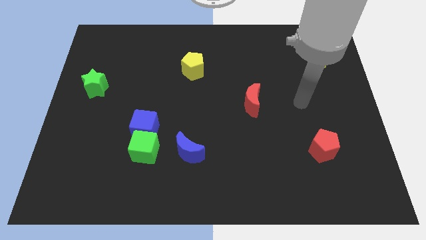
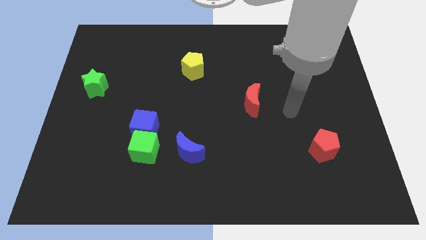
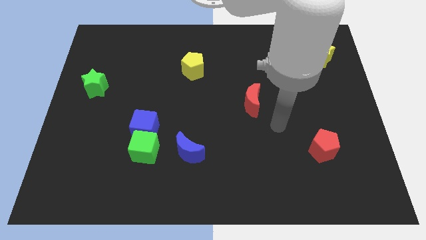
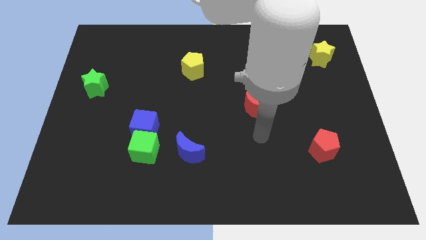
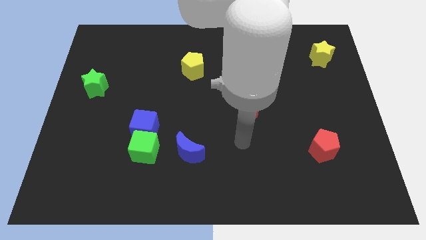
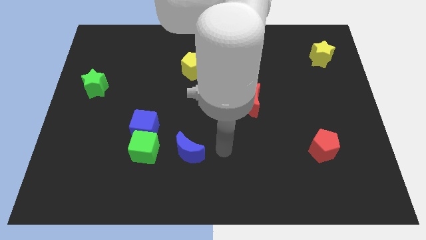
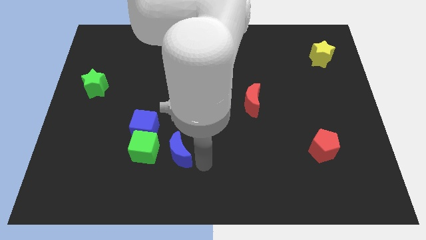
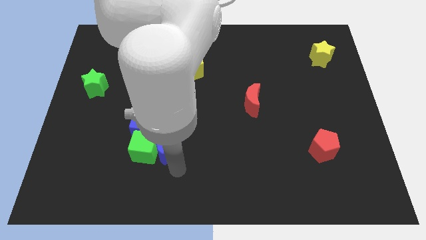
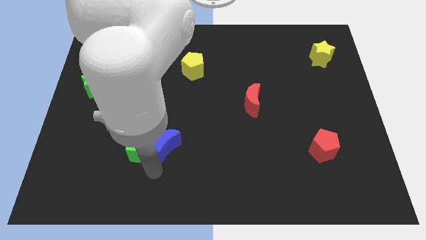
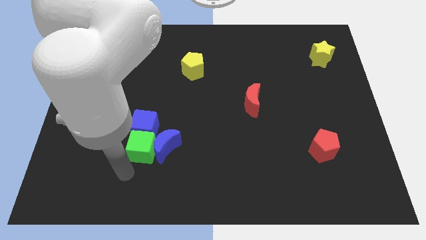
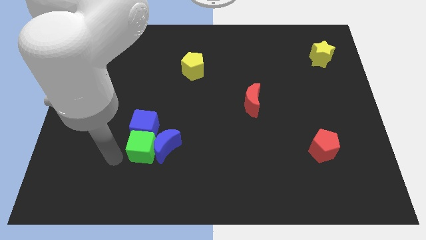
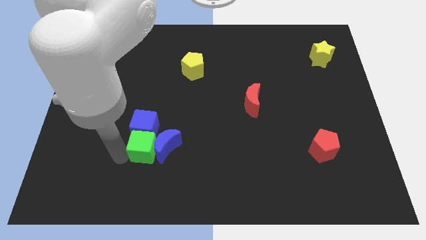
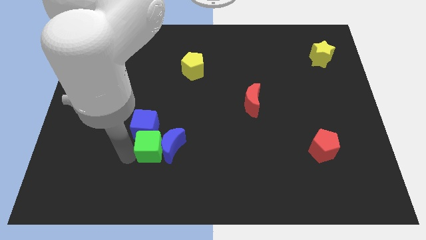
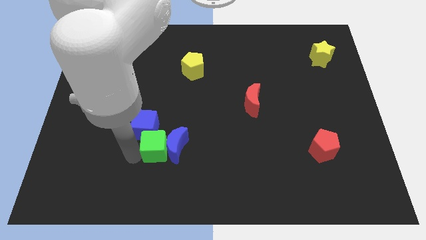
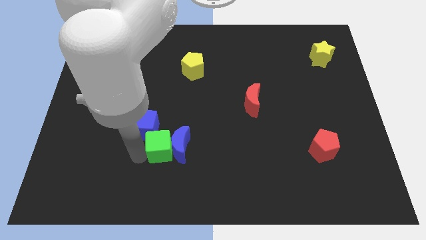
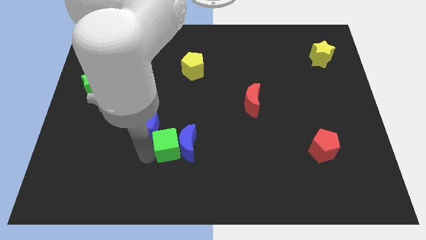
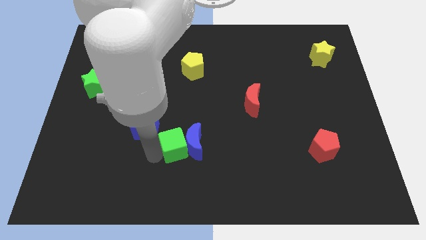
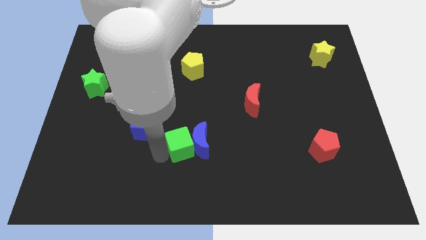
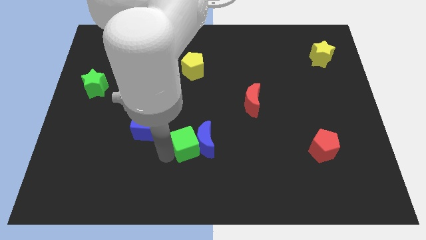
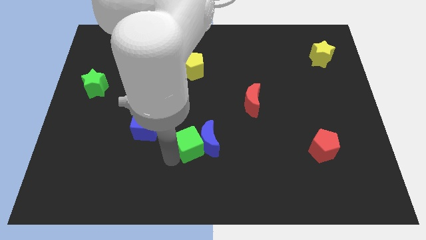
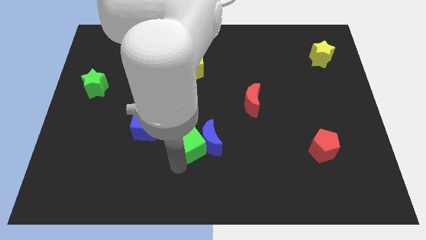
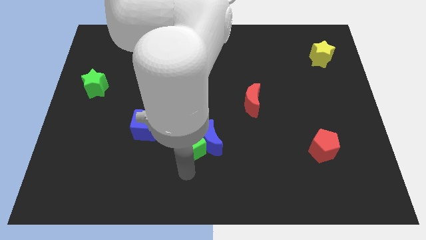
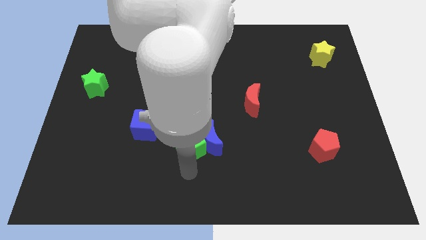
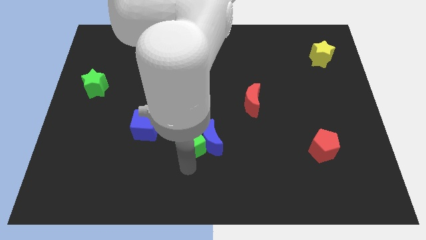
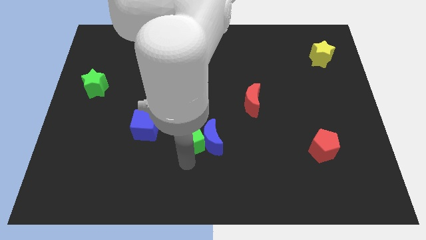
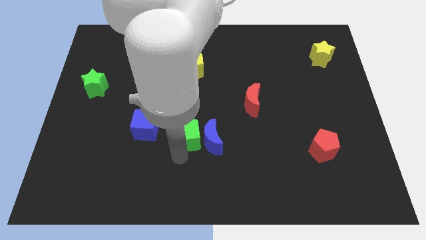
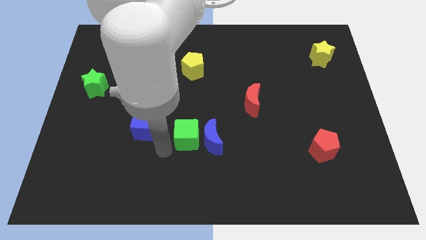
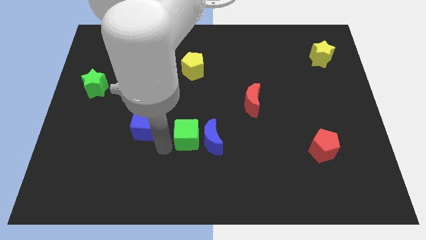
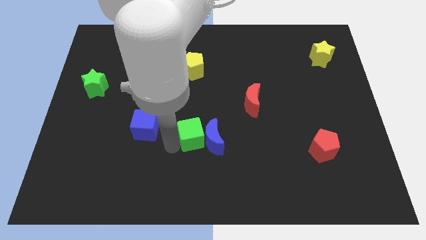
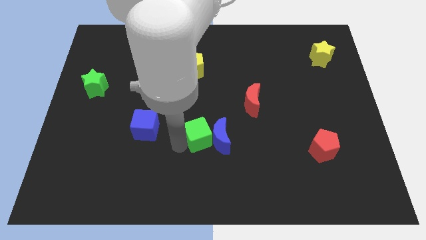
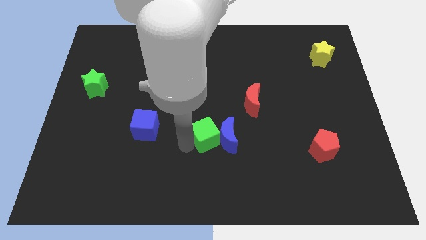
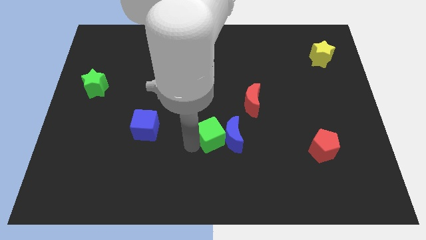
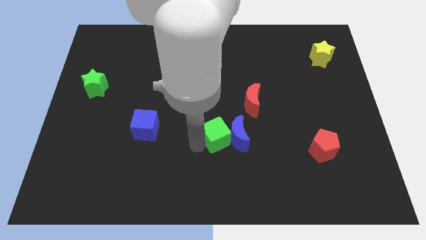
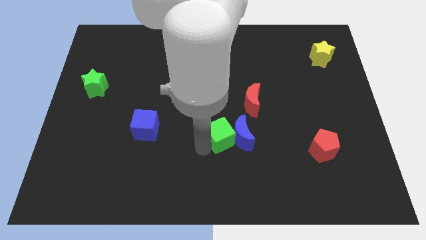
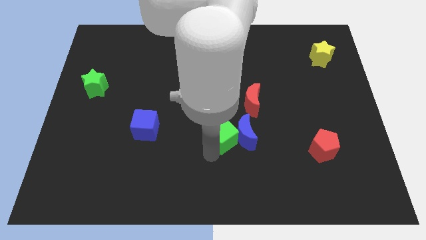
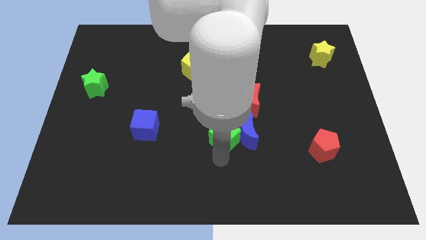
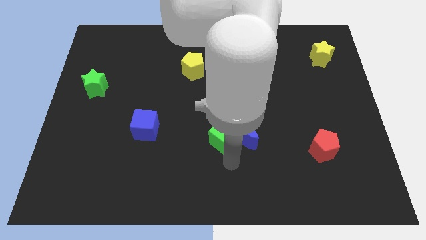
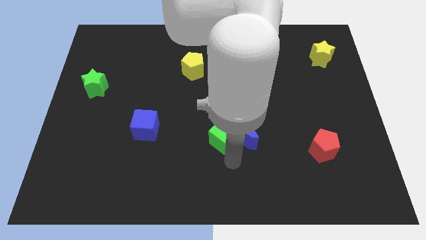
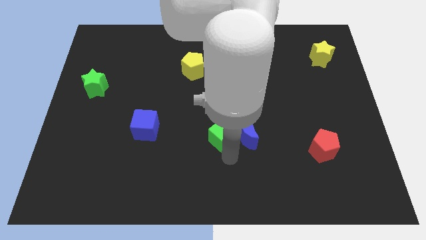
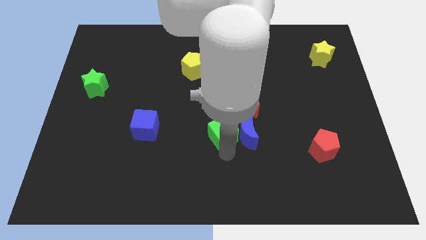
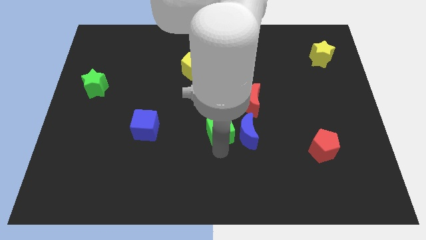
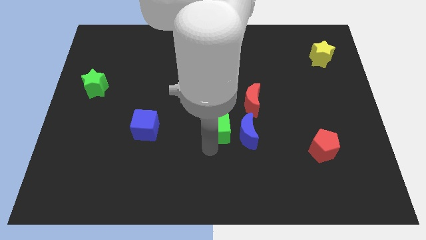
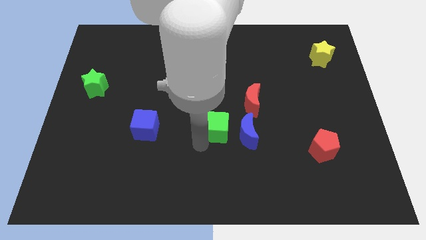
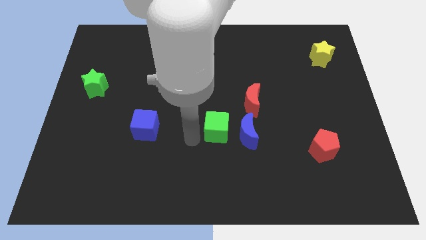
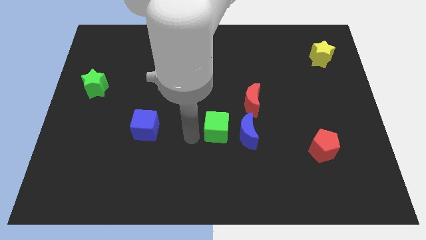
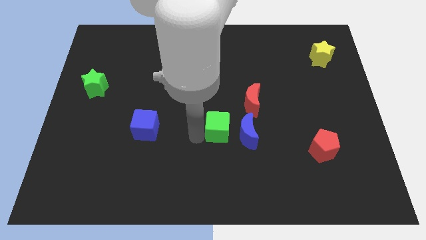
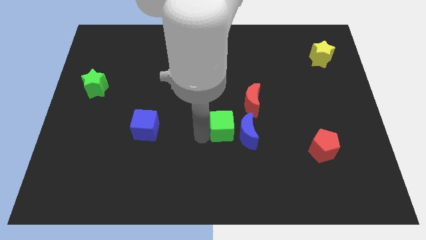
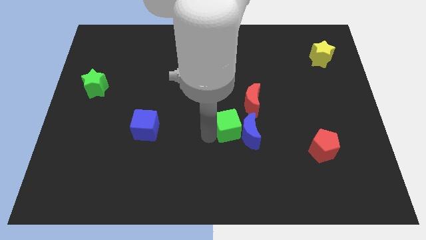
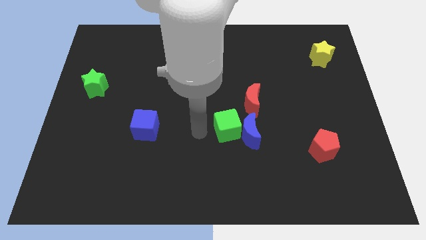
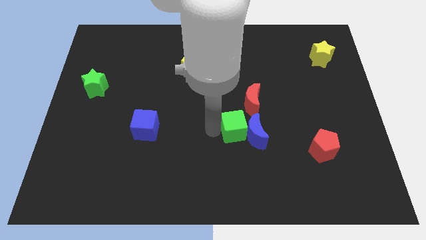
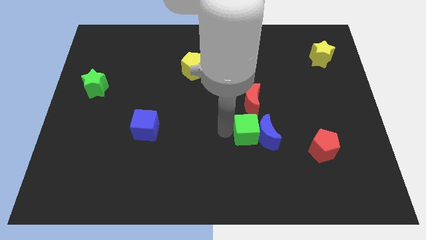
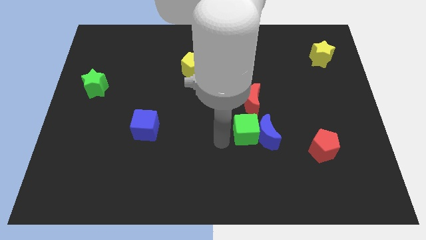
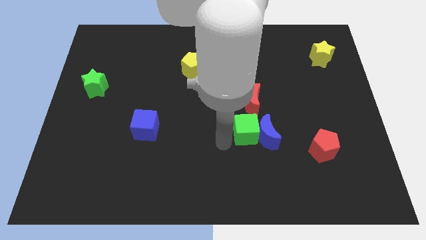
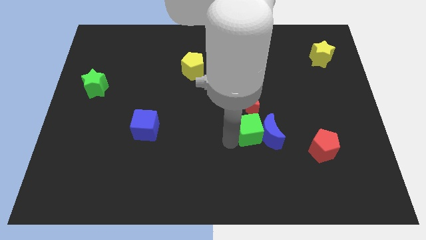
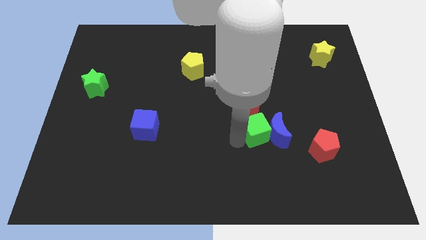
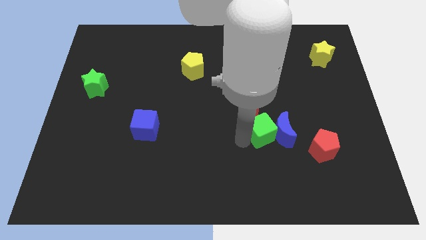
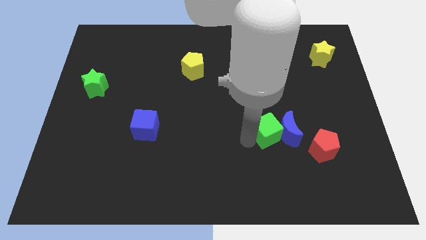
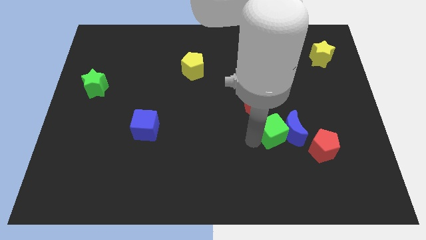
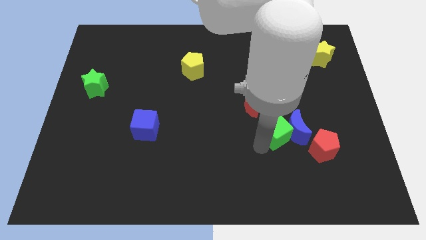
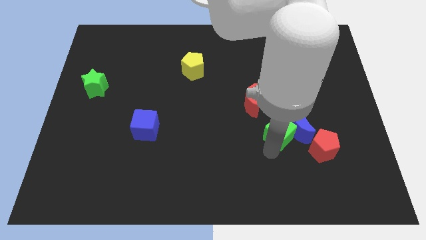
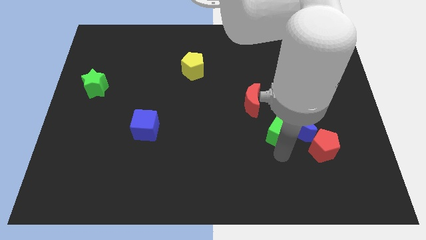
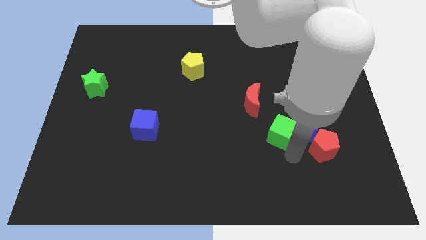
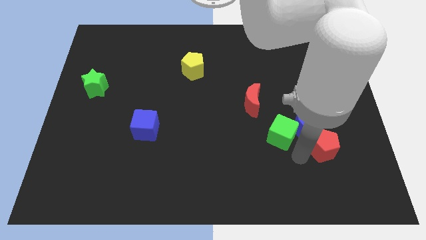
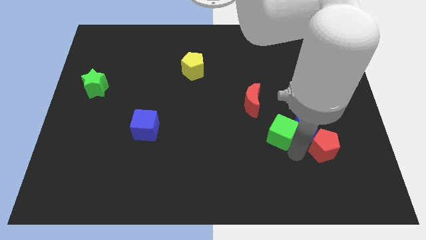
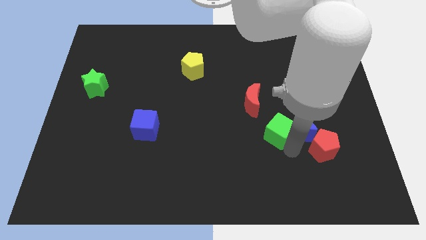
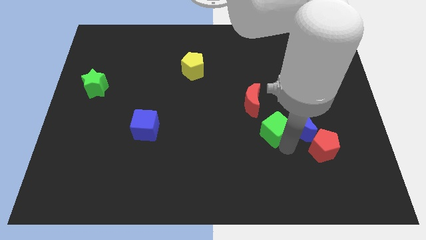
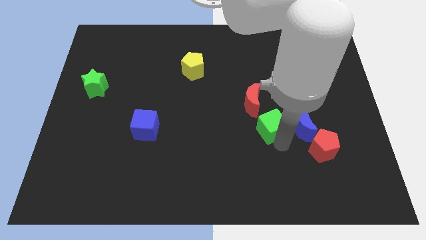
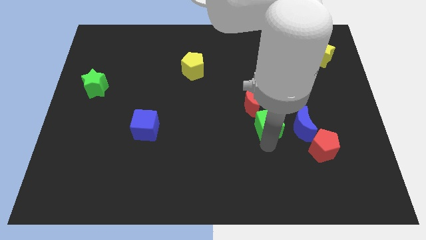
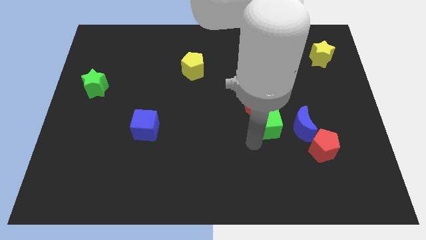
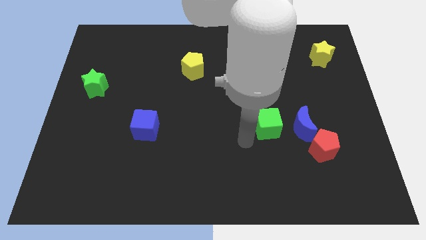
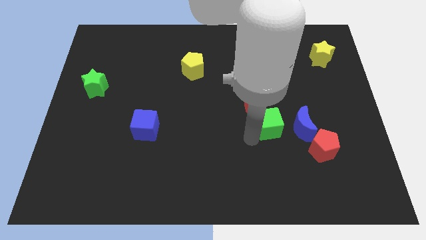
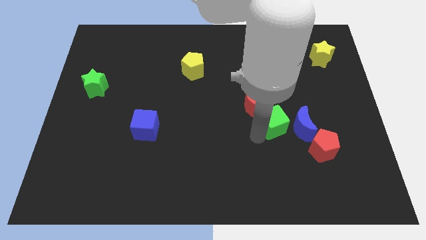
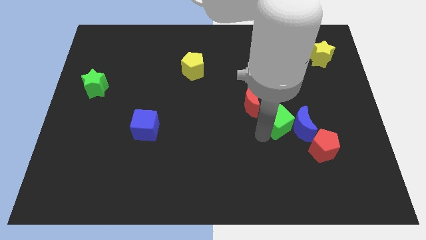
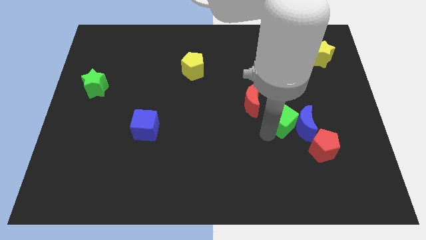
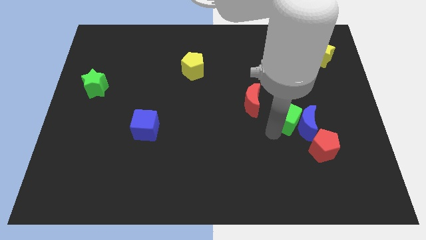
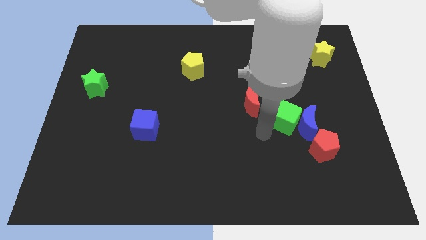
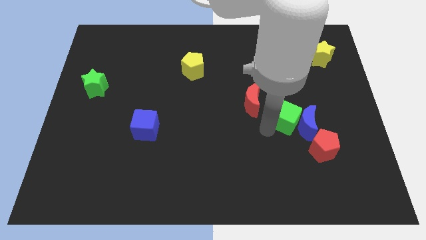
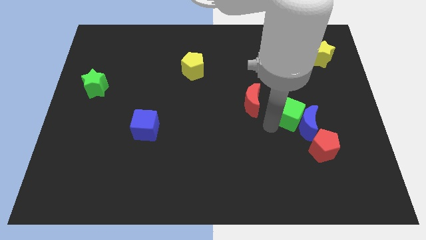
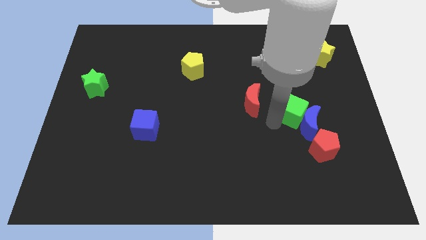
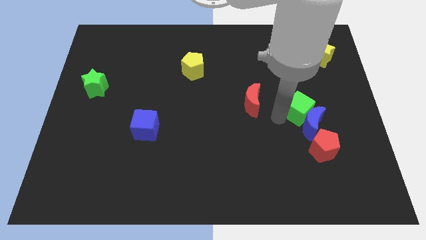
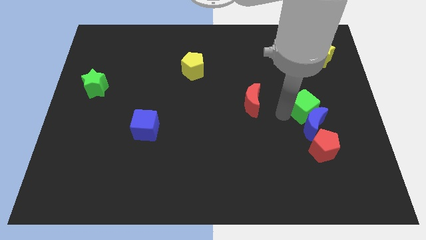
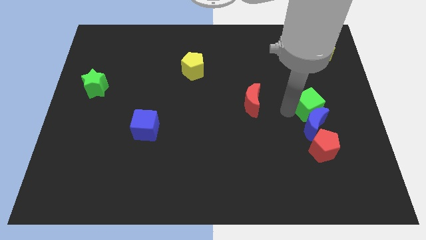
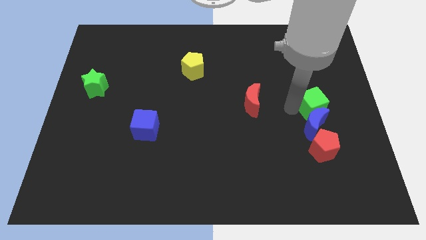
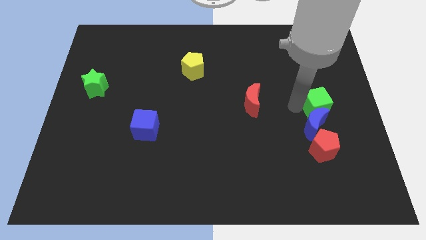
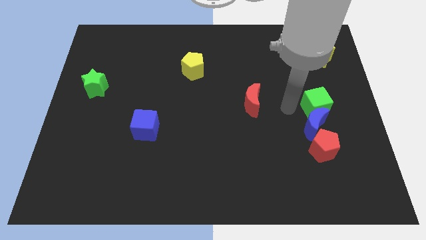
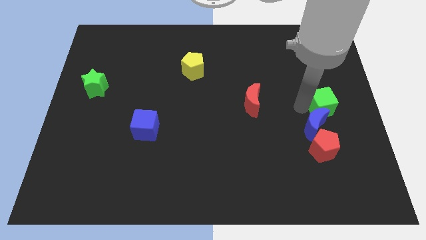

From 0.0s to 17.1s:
move the green cube to the right side
